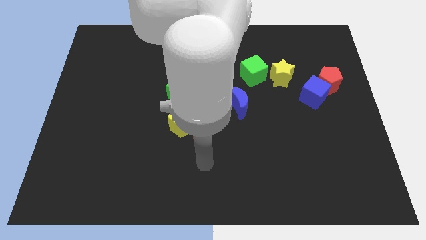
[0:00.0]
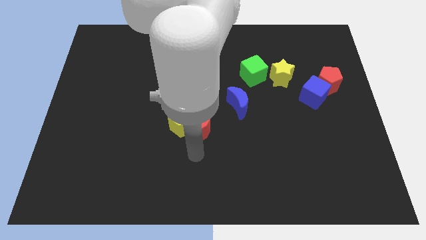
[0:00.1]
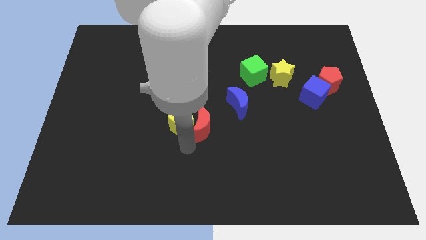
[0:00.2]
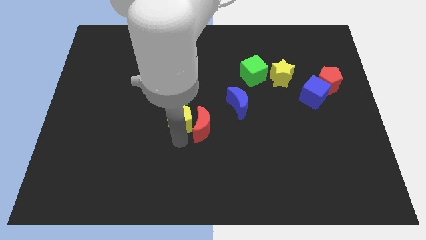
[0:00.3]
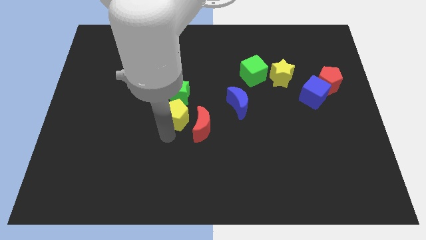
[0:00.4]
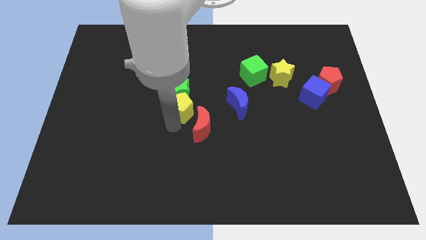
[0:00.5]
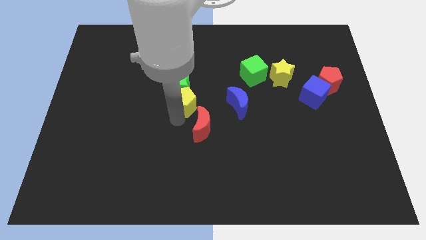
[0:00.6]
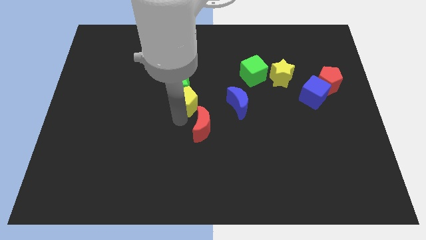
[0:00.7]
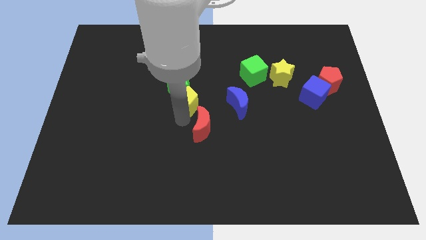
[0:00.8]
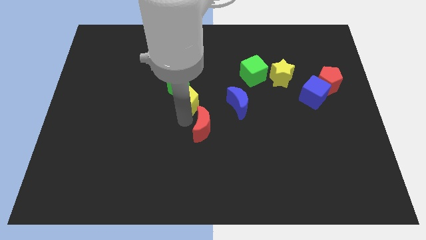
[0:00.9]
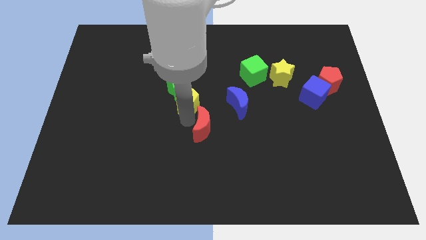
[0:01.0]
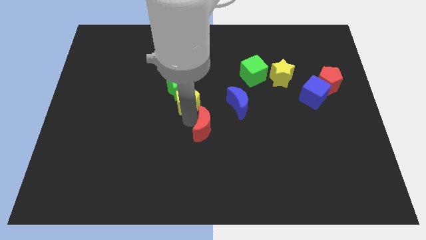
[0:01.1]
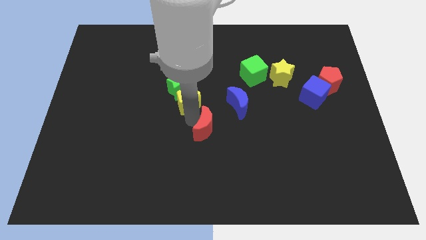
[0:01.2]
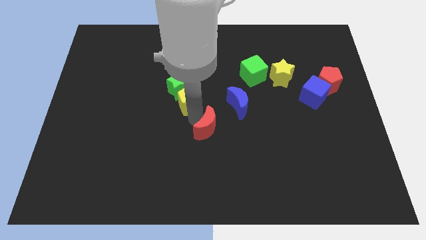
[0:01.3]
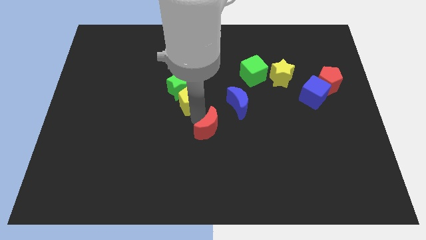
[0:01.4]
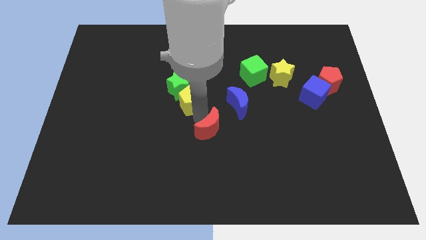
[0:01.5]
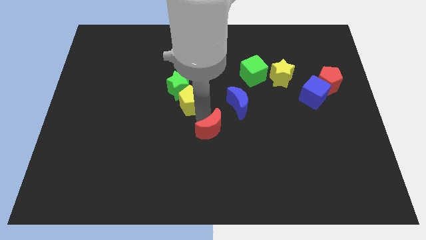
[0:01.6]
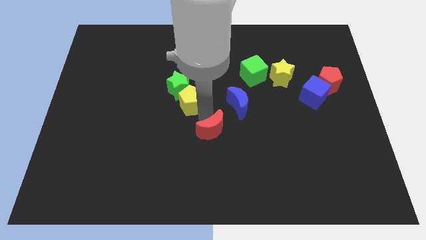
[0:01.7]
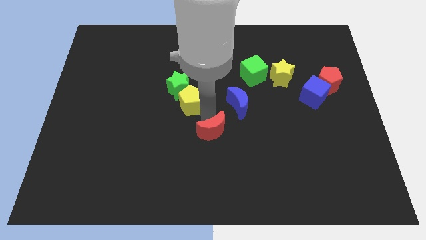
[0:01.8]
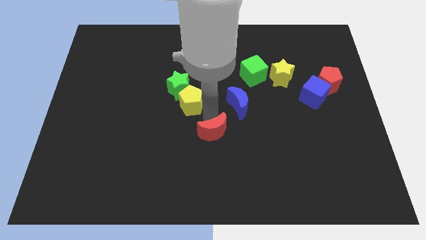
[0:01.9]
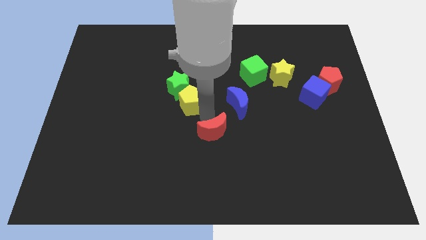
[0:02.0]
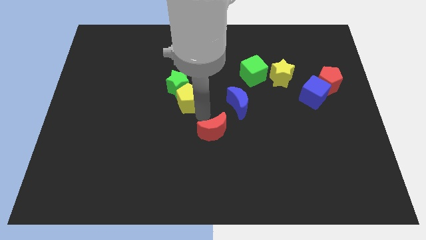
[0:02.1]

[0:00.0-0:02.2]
move the red moon away from the yellow pentagon

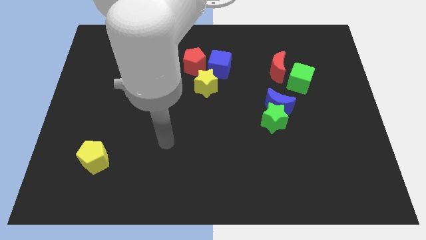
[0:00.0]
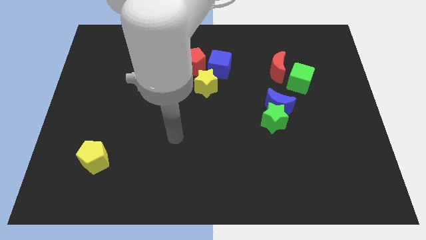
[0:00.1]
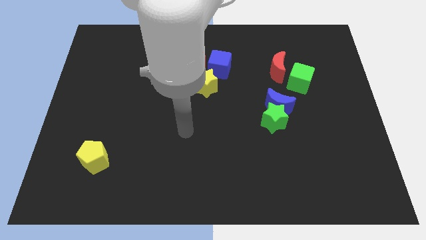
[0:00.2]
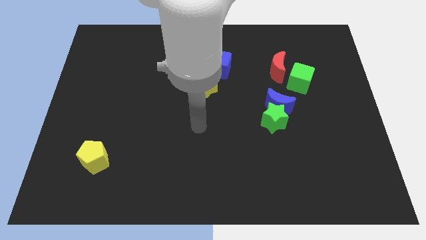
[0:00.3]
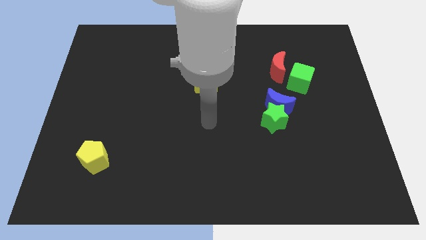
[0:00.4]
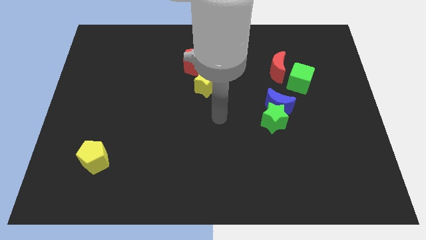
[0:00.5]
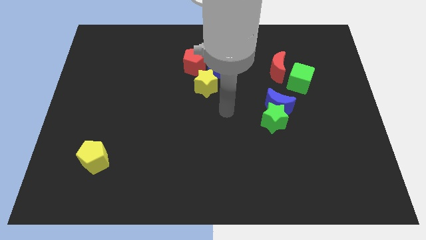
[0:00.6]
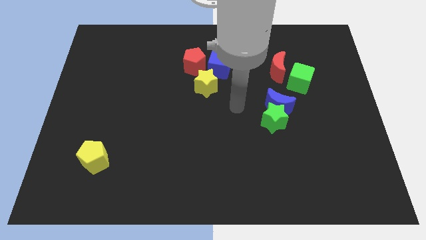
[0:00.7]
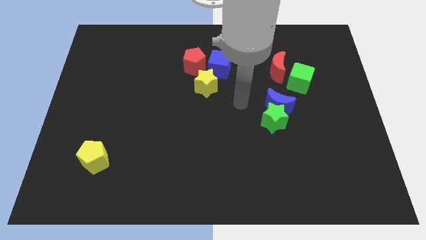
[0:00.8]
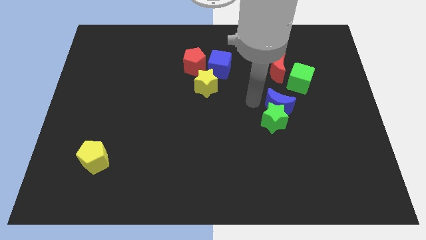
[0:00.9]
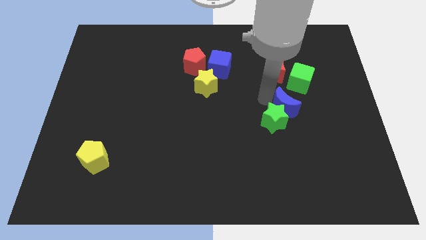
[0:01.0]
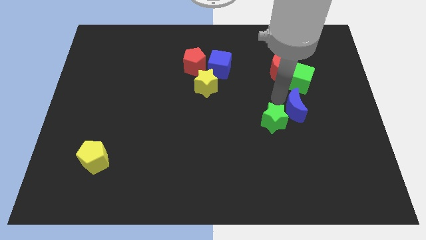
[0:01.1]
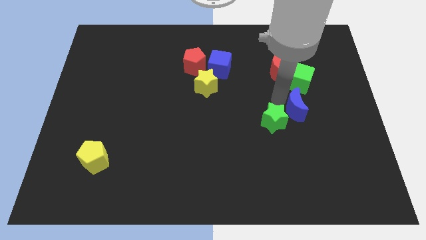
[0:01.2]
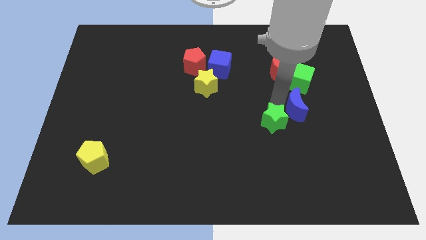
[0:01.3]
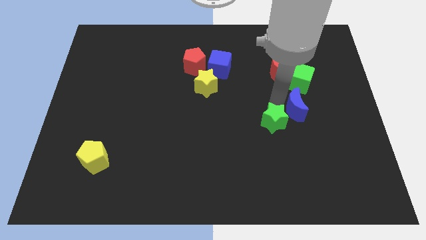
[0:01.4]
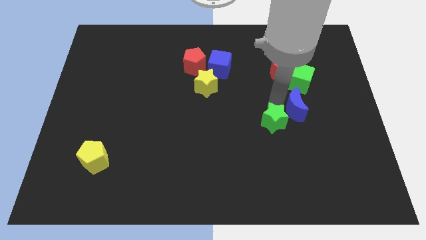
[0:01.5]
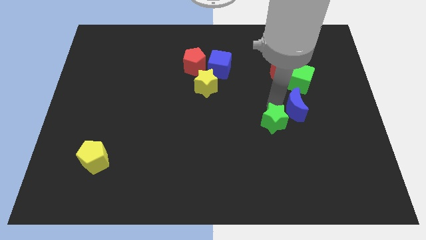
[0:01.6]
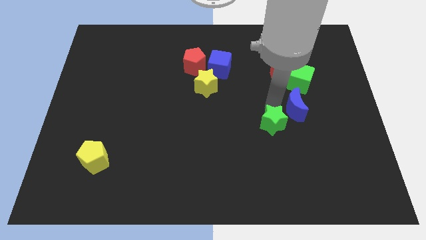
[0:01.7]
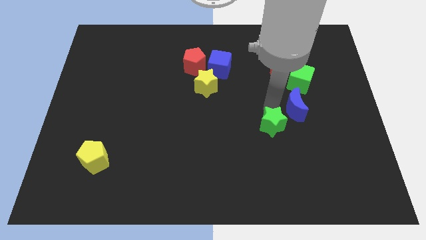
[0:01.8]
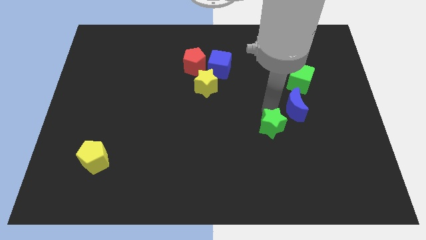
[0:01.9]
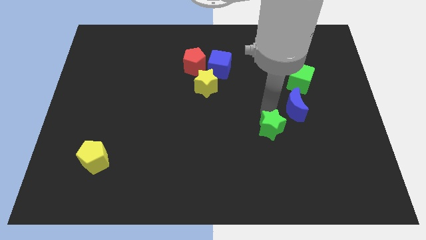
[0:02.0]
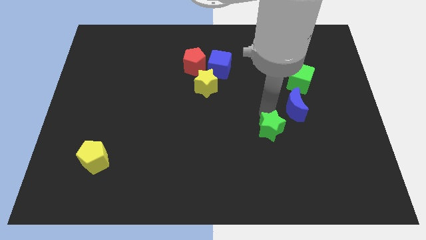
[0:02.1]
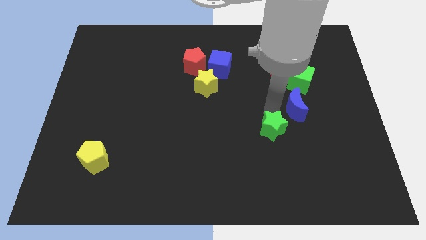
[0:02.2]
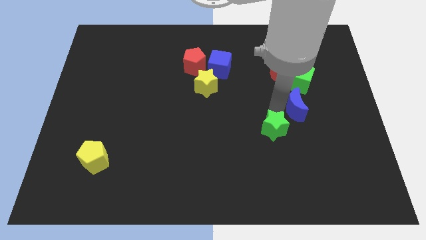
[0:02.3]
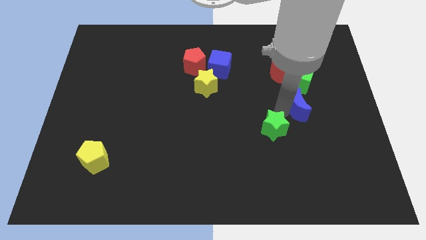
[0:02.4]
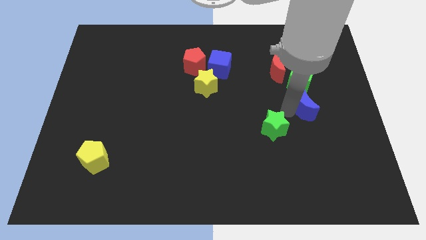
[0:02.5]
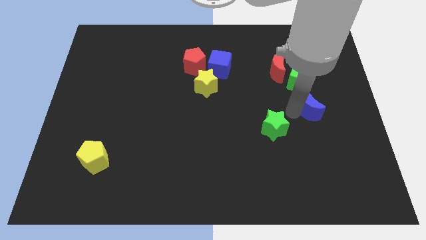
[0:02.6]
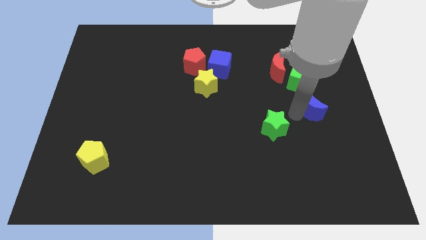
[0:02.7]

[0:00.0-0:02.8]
pull the green star apart from the blue moon

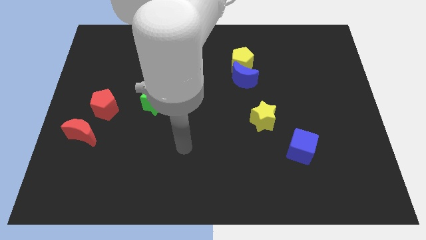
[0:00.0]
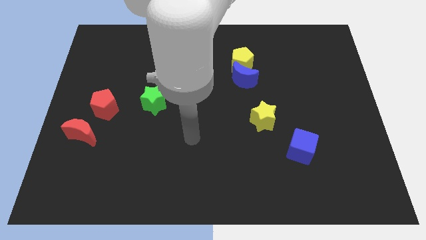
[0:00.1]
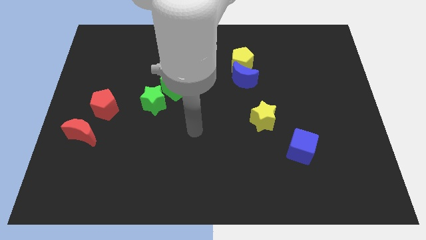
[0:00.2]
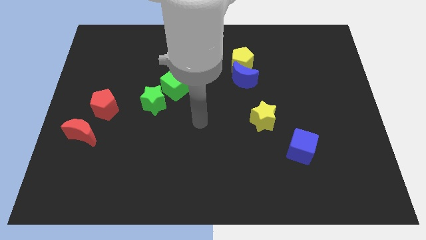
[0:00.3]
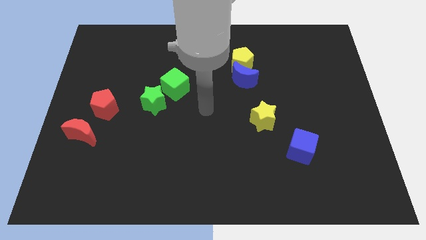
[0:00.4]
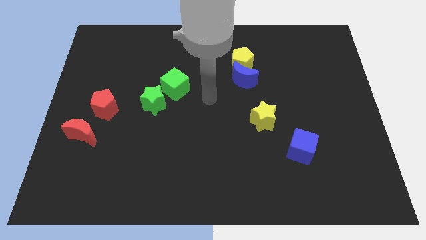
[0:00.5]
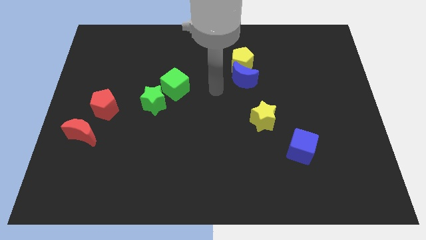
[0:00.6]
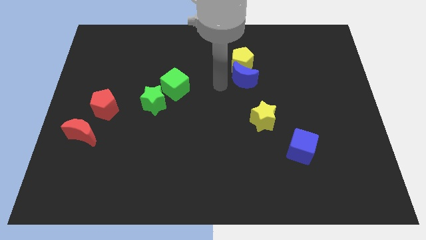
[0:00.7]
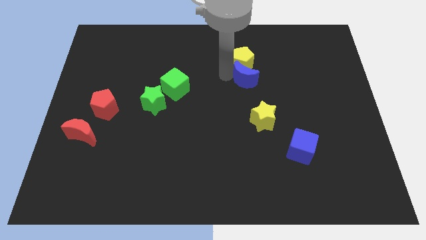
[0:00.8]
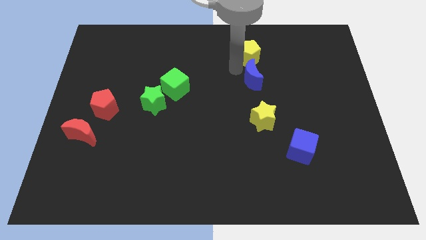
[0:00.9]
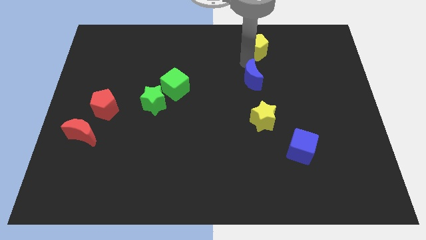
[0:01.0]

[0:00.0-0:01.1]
move the blue moon away from the yellow pentagon

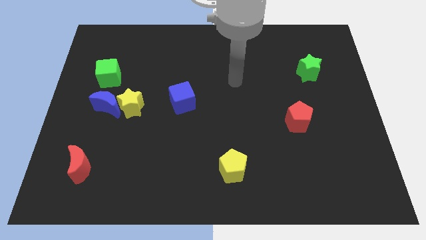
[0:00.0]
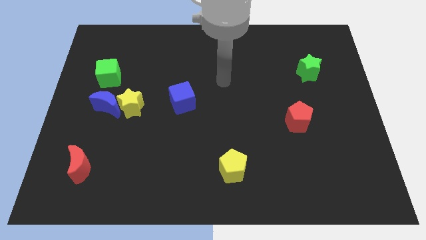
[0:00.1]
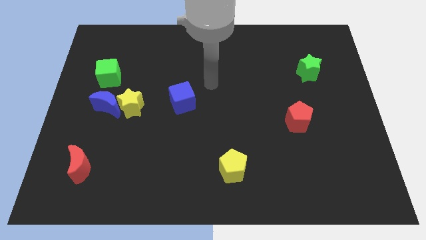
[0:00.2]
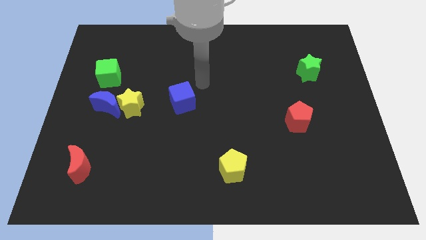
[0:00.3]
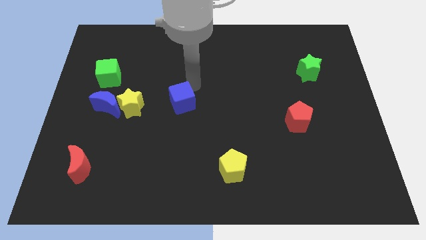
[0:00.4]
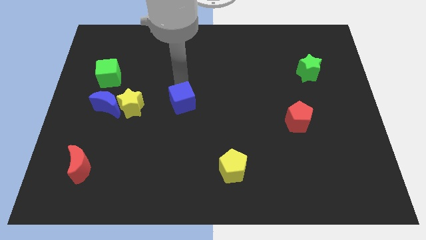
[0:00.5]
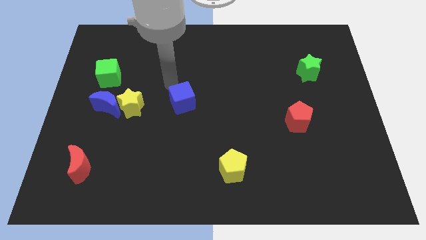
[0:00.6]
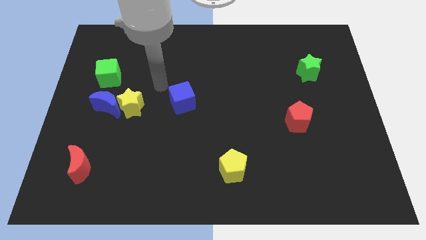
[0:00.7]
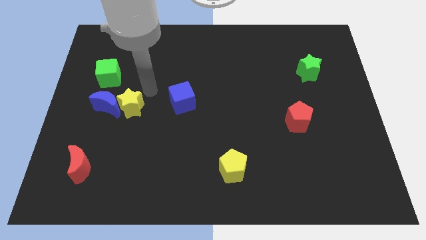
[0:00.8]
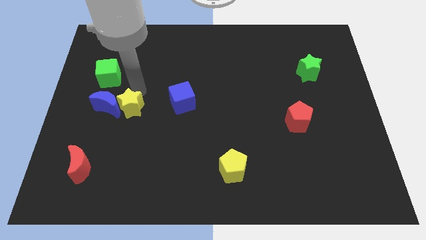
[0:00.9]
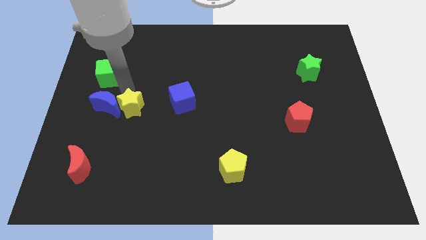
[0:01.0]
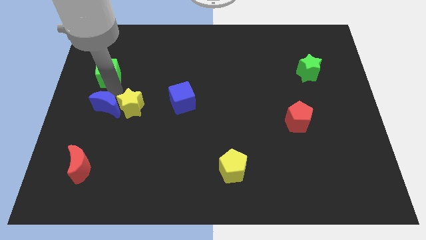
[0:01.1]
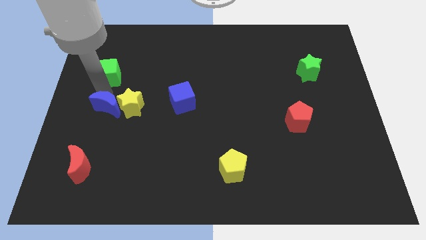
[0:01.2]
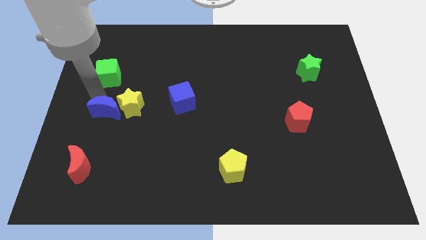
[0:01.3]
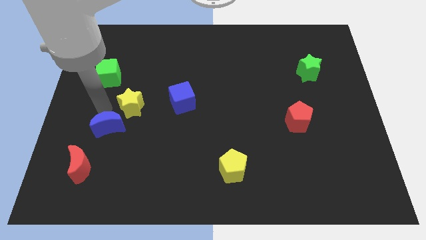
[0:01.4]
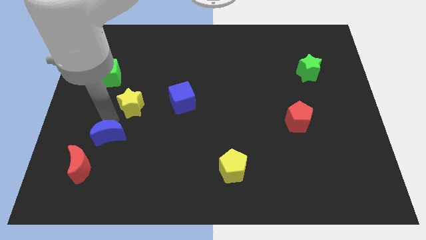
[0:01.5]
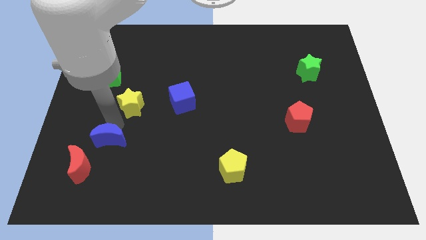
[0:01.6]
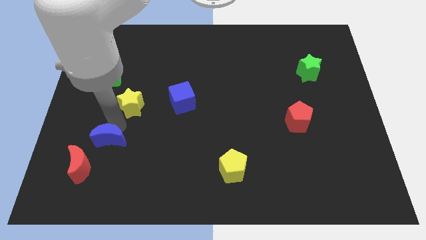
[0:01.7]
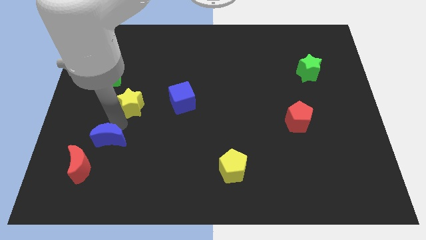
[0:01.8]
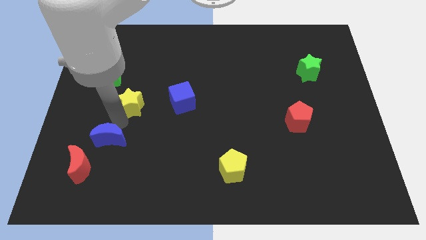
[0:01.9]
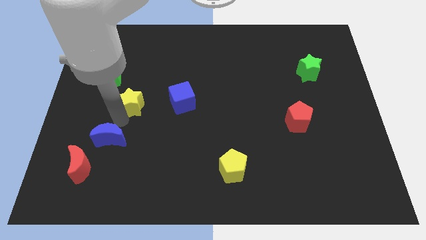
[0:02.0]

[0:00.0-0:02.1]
separate the yellow star from the blue moon

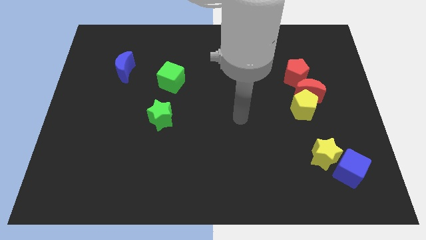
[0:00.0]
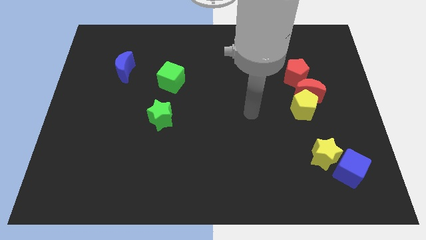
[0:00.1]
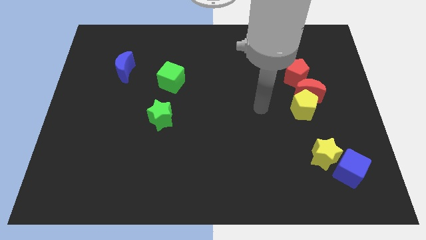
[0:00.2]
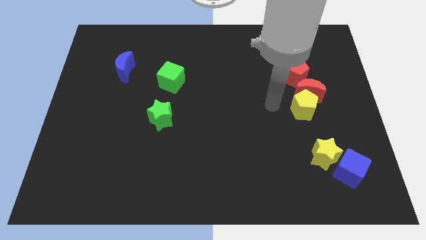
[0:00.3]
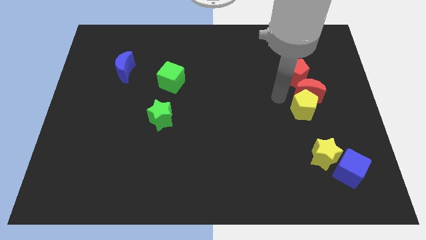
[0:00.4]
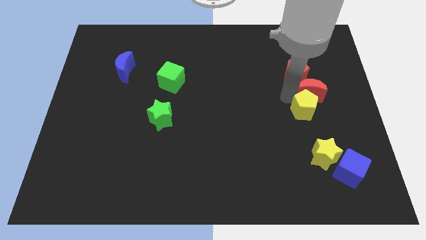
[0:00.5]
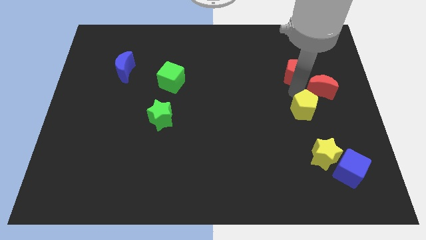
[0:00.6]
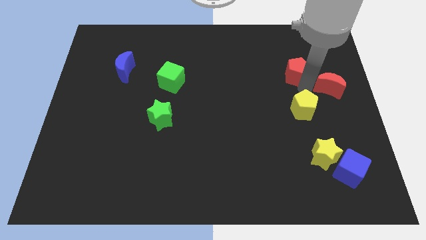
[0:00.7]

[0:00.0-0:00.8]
pull the yellow pentagon apart from the red moon

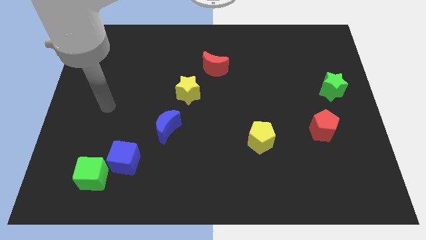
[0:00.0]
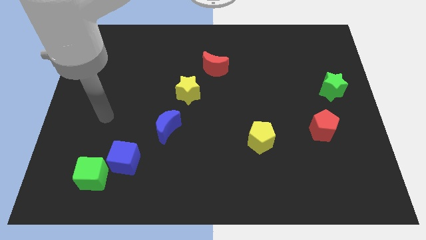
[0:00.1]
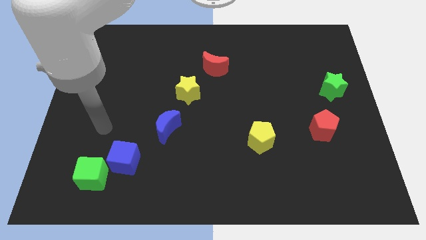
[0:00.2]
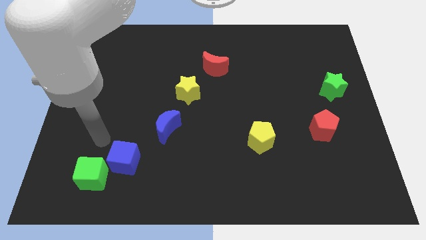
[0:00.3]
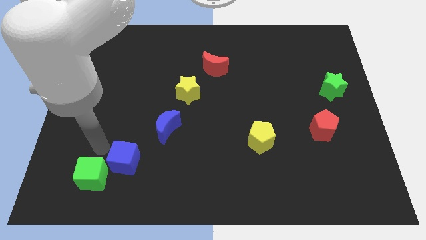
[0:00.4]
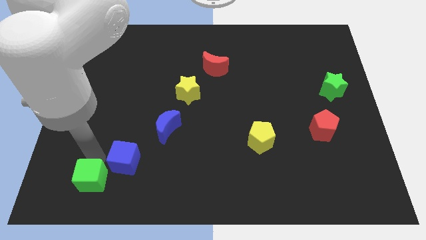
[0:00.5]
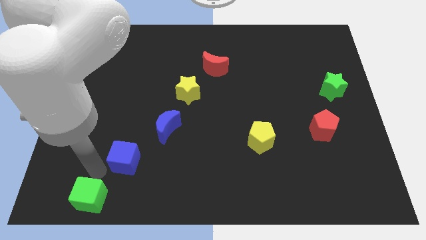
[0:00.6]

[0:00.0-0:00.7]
move the blue cube away from the green cube
